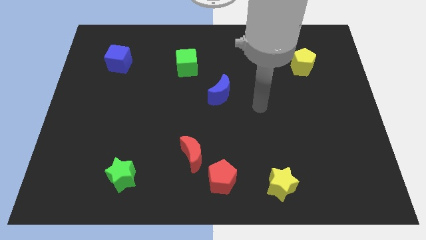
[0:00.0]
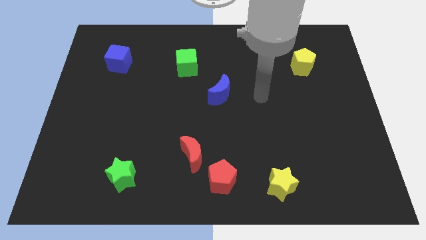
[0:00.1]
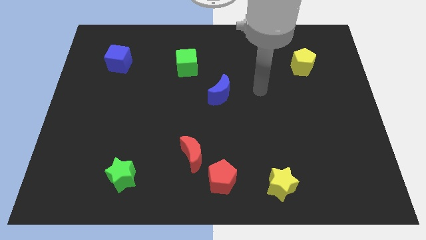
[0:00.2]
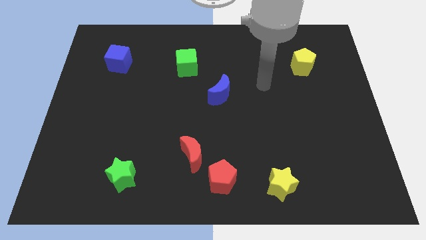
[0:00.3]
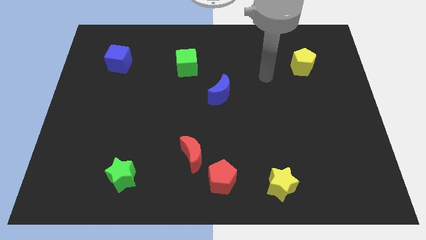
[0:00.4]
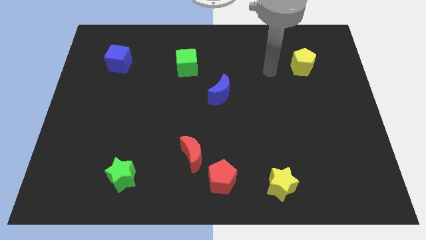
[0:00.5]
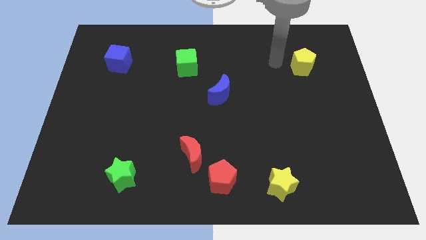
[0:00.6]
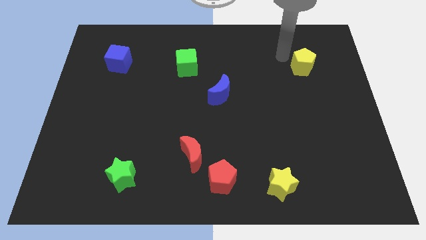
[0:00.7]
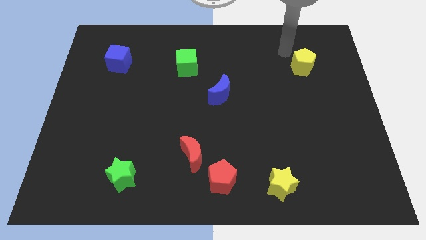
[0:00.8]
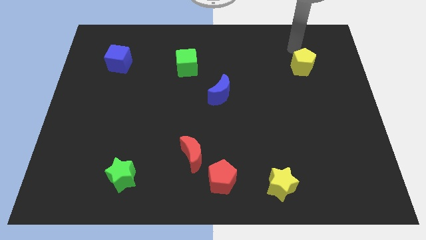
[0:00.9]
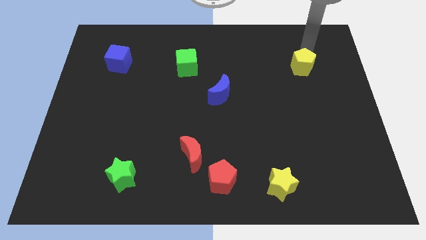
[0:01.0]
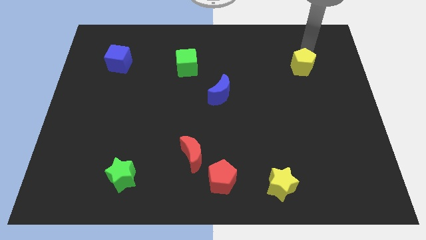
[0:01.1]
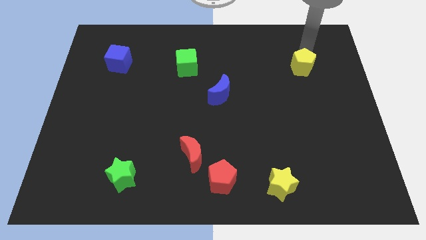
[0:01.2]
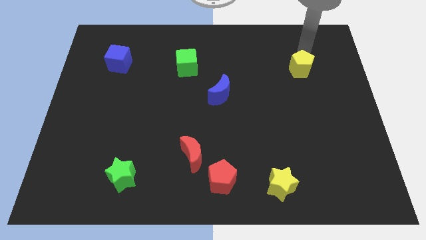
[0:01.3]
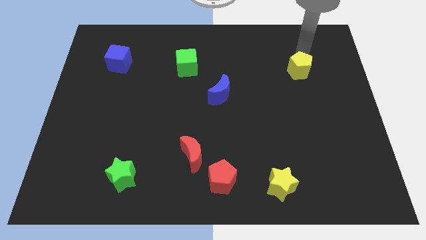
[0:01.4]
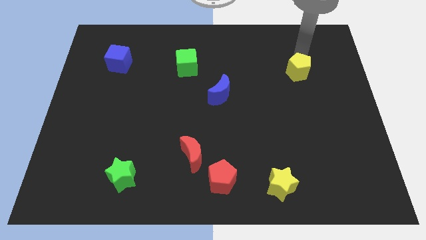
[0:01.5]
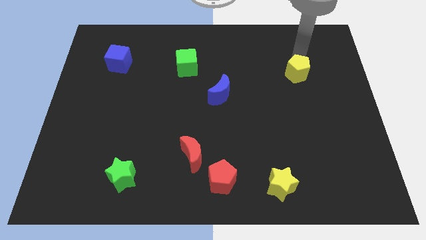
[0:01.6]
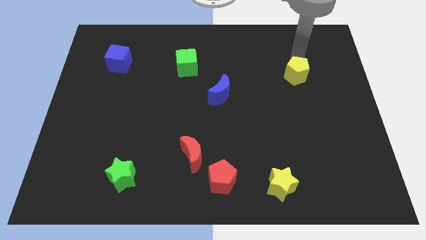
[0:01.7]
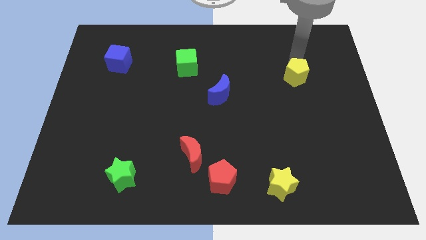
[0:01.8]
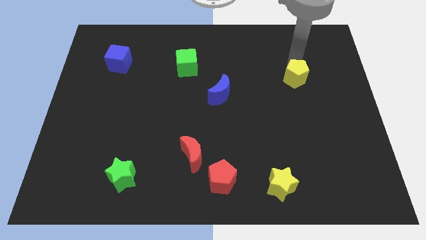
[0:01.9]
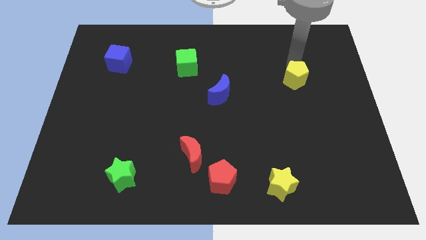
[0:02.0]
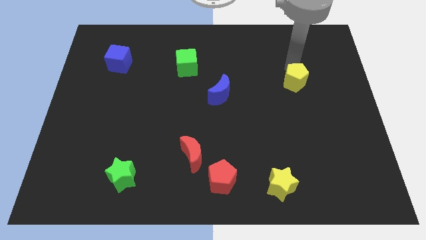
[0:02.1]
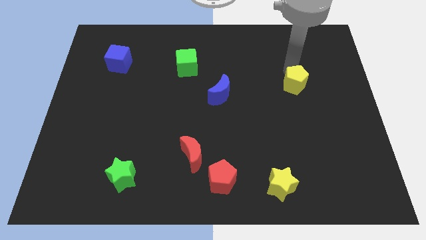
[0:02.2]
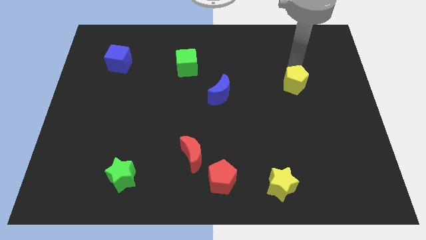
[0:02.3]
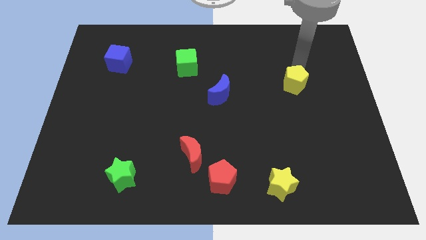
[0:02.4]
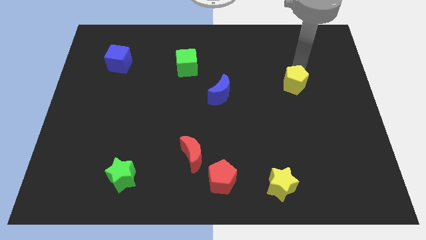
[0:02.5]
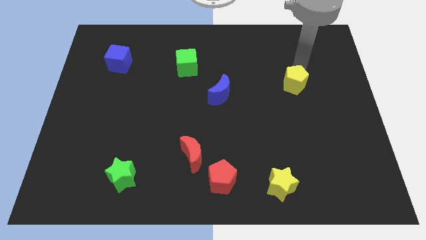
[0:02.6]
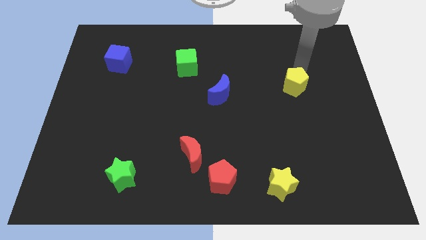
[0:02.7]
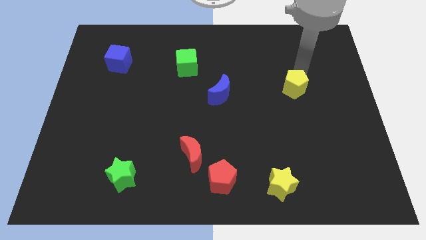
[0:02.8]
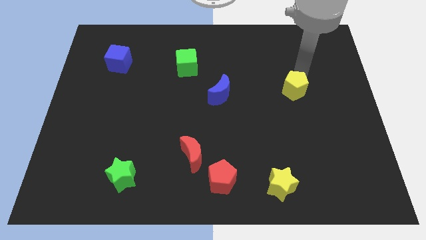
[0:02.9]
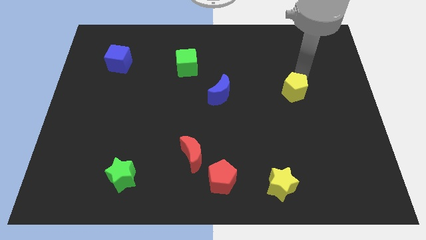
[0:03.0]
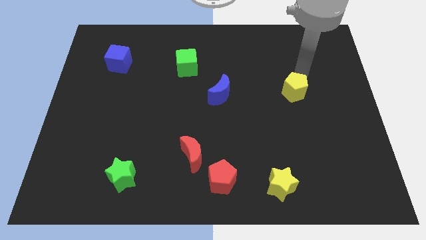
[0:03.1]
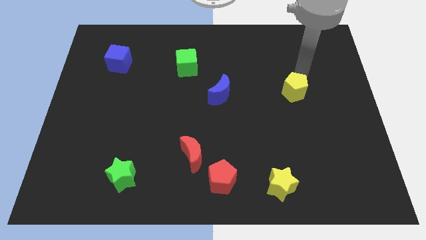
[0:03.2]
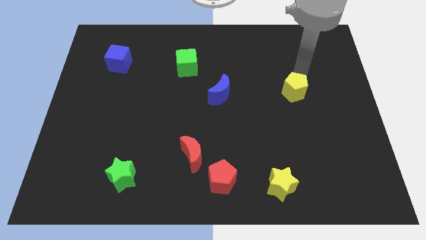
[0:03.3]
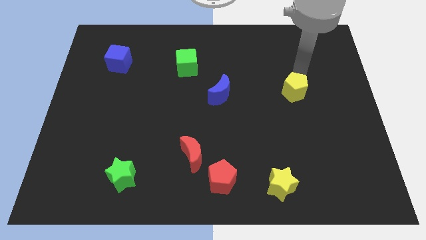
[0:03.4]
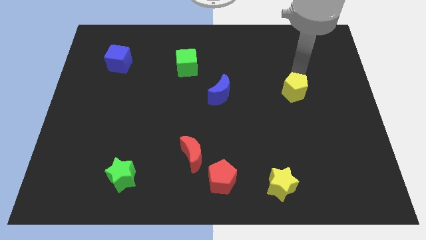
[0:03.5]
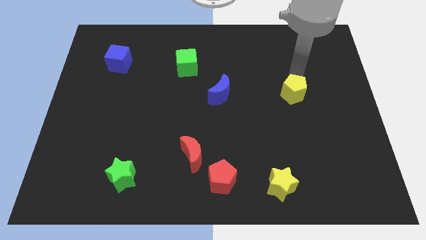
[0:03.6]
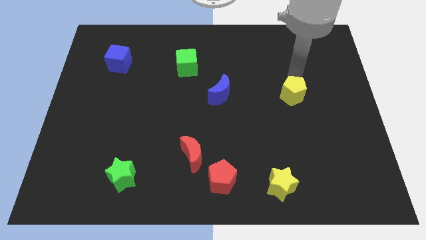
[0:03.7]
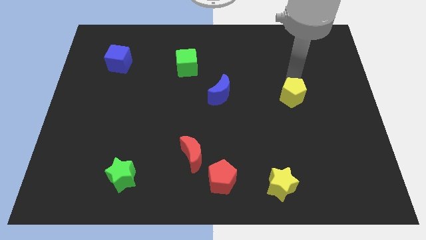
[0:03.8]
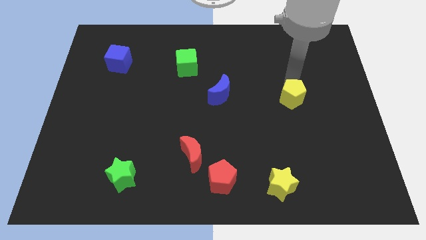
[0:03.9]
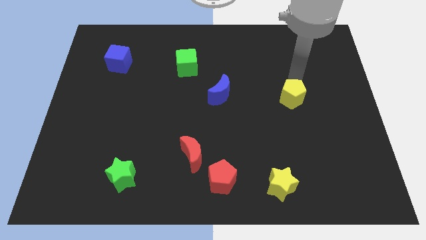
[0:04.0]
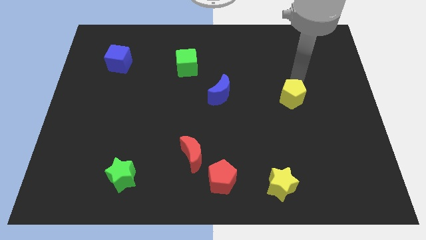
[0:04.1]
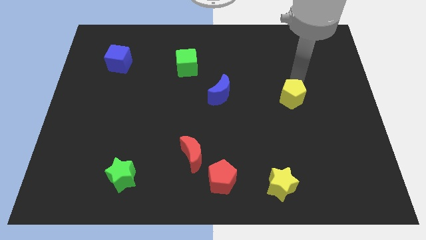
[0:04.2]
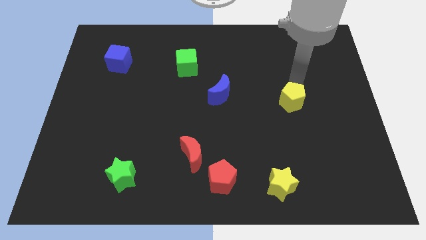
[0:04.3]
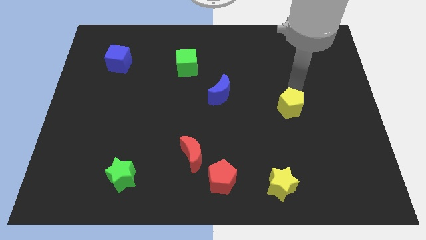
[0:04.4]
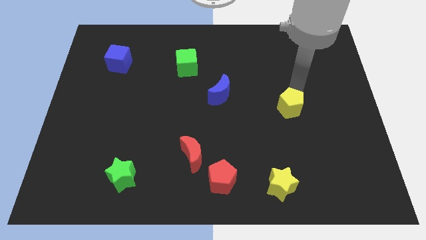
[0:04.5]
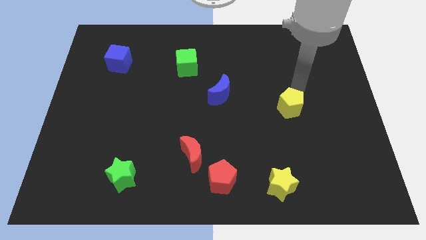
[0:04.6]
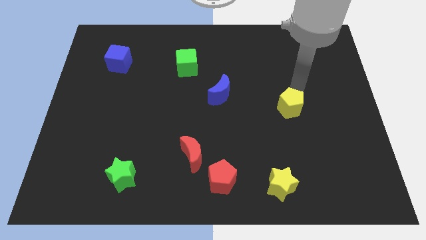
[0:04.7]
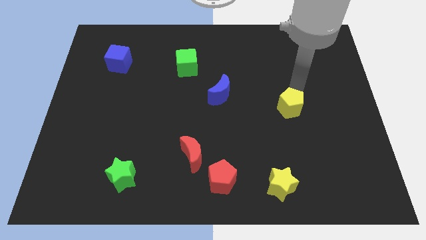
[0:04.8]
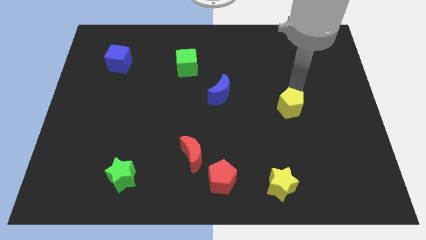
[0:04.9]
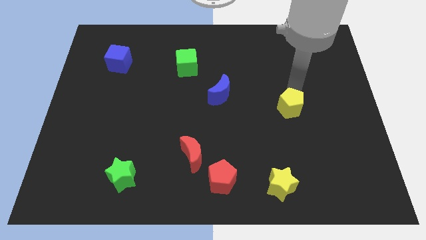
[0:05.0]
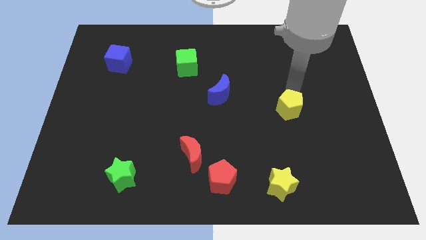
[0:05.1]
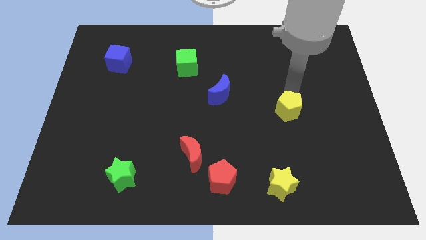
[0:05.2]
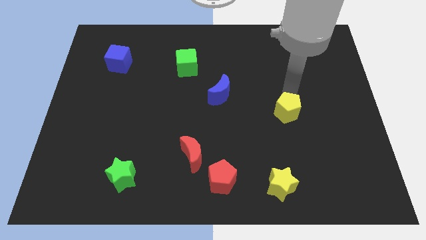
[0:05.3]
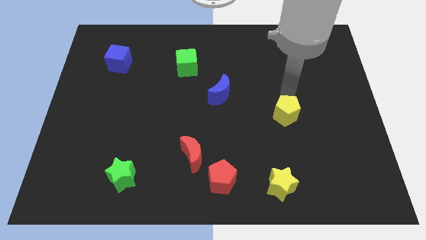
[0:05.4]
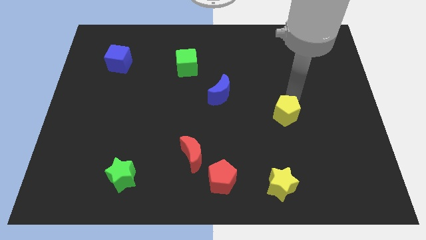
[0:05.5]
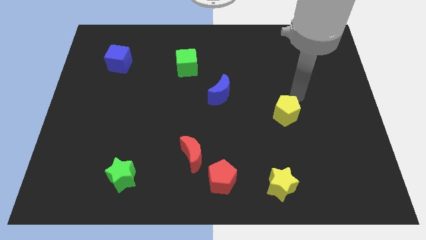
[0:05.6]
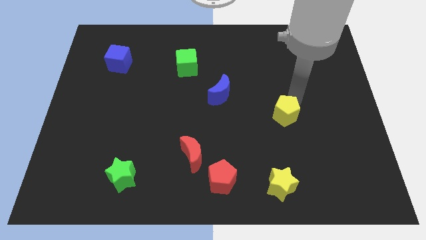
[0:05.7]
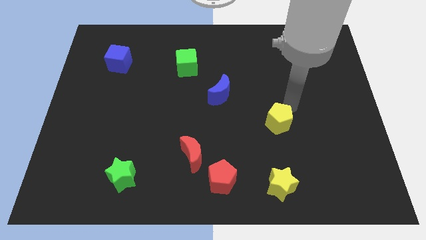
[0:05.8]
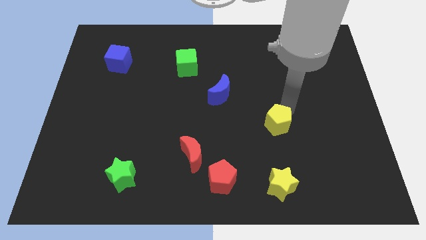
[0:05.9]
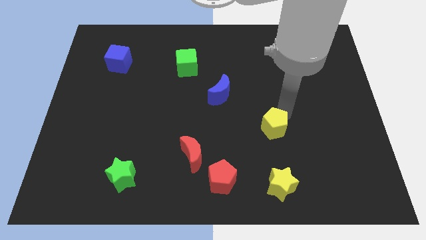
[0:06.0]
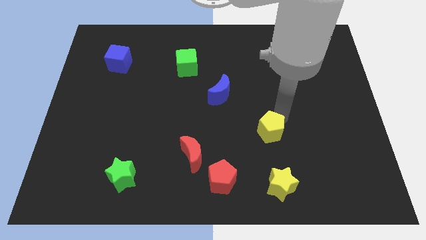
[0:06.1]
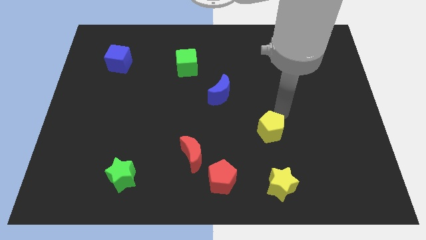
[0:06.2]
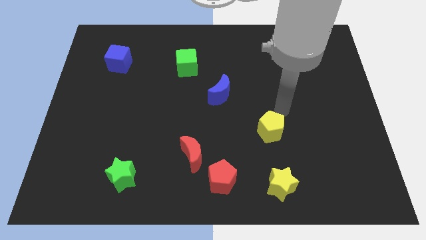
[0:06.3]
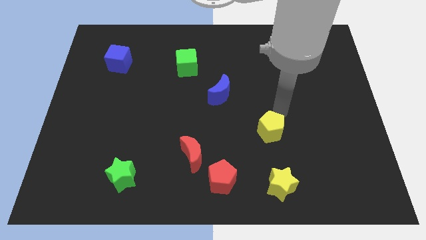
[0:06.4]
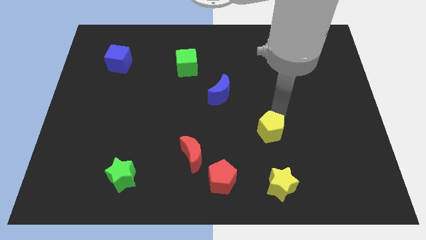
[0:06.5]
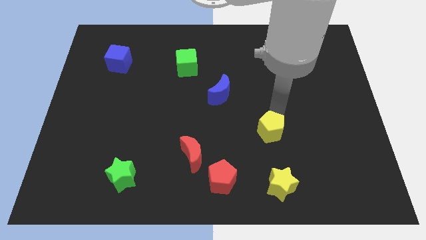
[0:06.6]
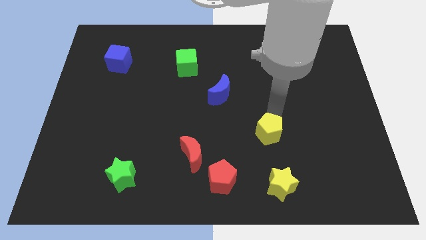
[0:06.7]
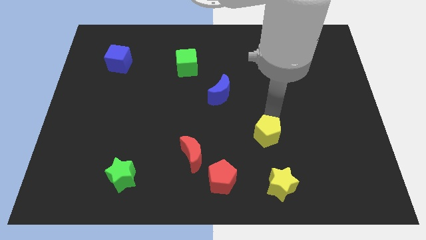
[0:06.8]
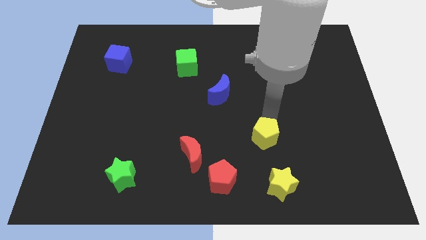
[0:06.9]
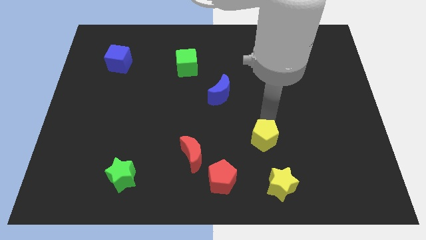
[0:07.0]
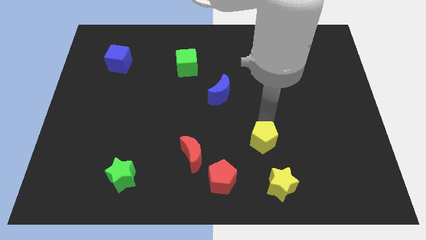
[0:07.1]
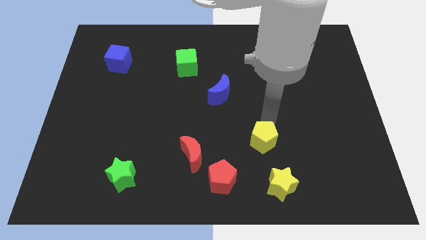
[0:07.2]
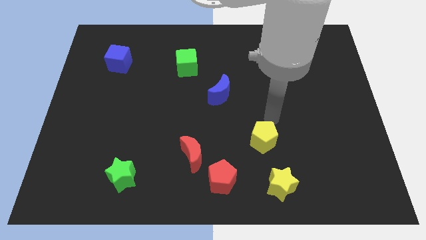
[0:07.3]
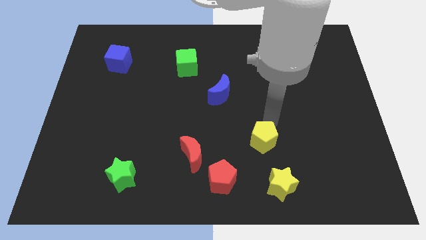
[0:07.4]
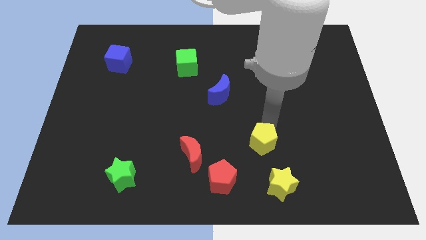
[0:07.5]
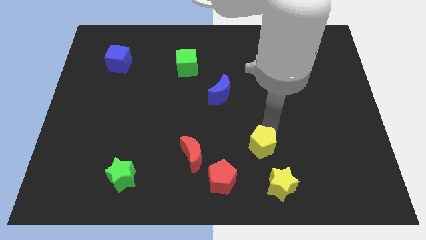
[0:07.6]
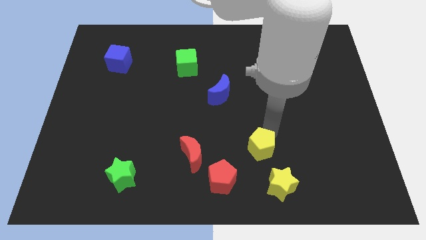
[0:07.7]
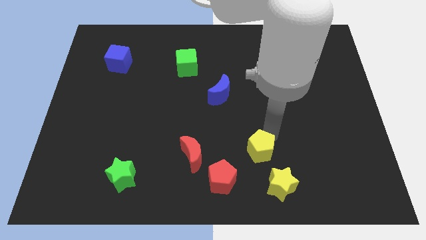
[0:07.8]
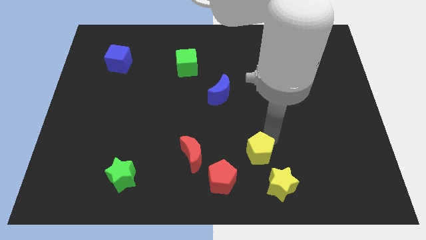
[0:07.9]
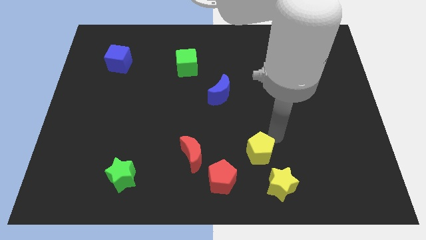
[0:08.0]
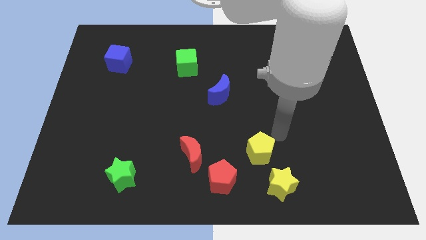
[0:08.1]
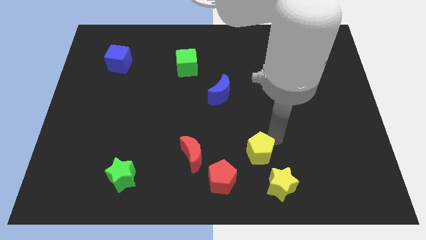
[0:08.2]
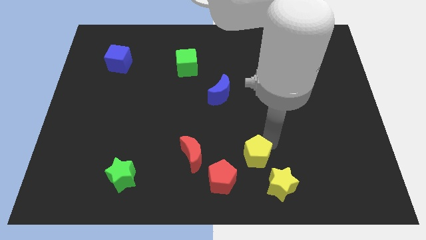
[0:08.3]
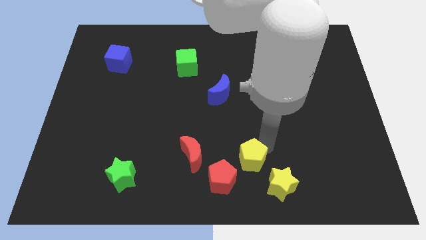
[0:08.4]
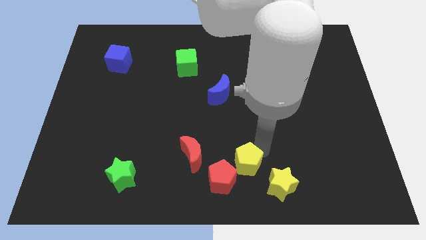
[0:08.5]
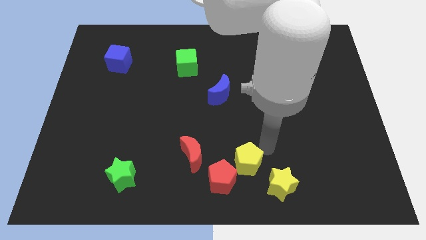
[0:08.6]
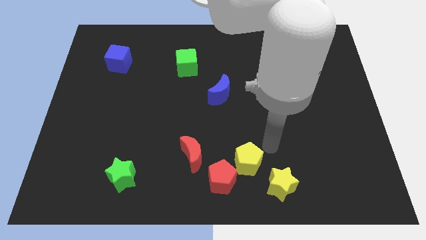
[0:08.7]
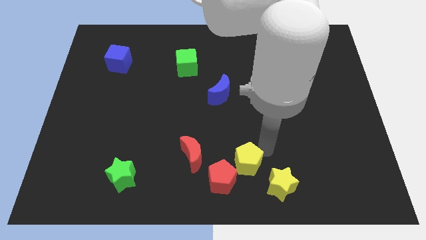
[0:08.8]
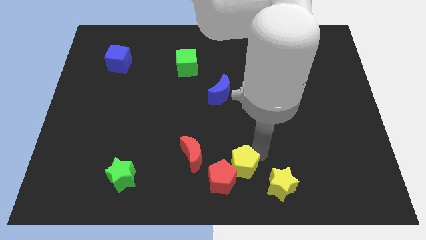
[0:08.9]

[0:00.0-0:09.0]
put the yellow pentagon towards the red pentagon
